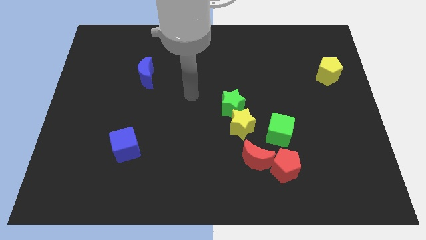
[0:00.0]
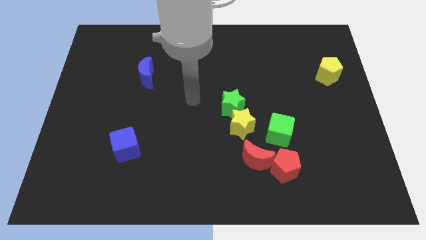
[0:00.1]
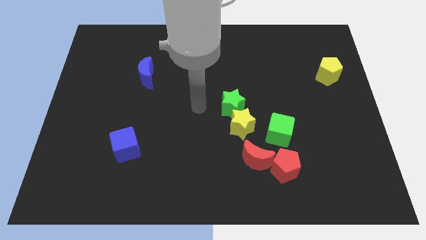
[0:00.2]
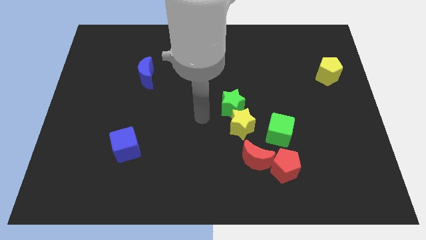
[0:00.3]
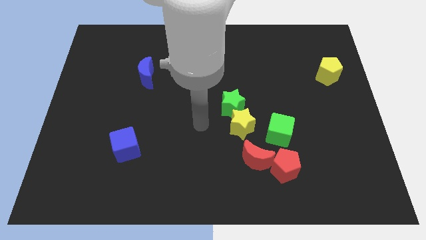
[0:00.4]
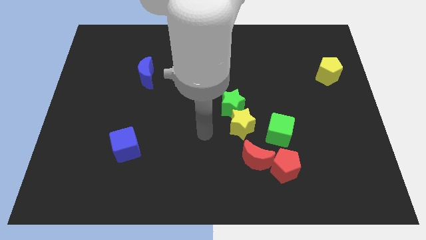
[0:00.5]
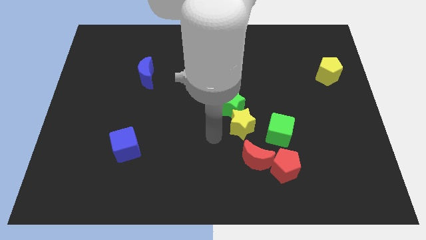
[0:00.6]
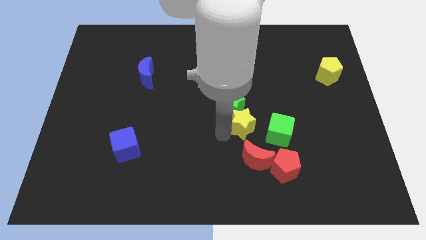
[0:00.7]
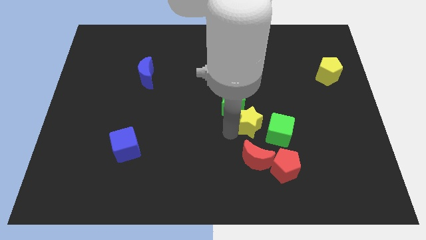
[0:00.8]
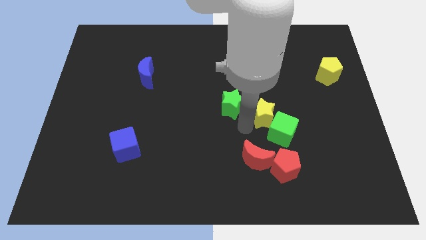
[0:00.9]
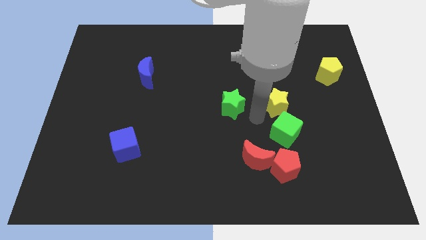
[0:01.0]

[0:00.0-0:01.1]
pull the green star apart from the yellow star

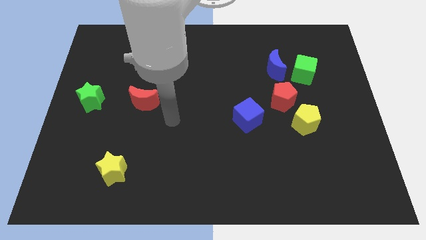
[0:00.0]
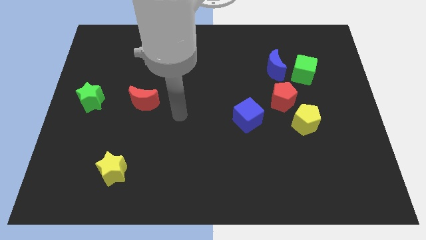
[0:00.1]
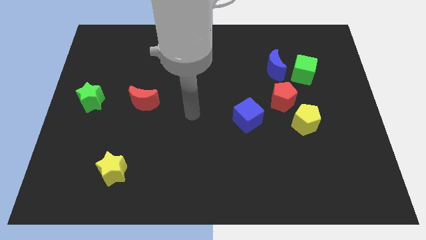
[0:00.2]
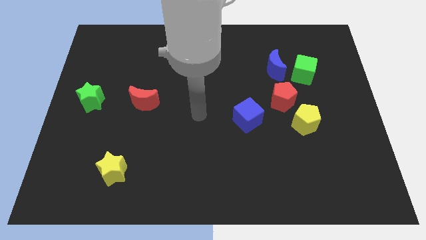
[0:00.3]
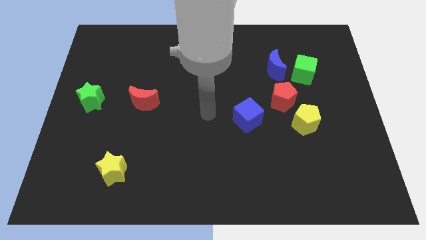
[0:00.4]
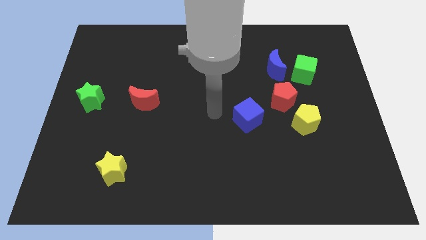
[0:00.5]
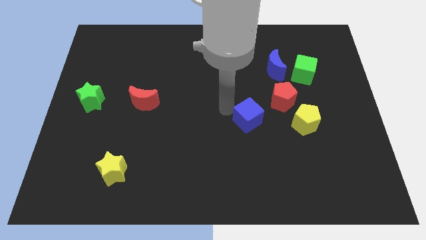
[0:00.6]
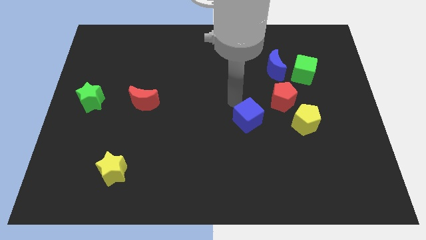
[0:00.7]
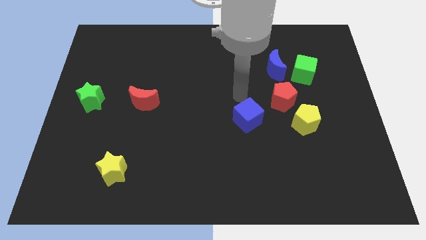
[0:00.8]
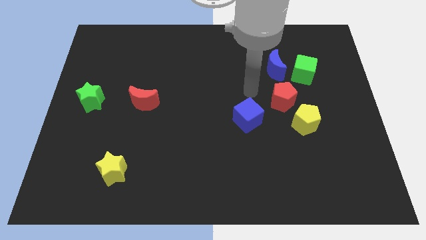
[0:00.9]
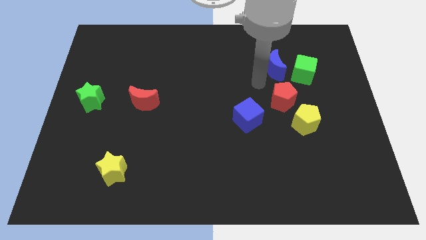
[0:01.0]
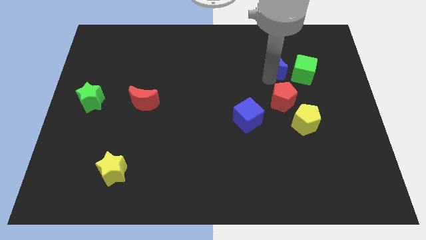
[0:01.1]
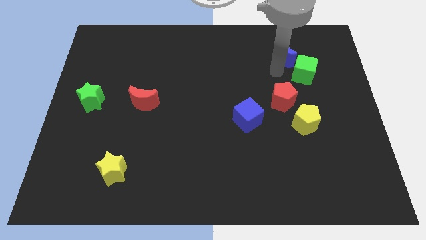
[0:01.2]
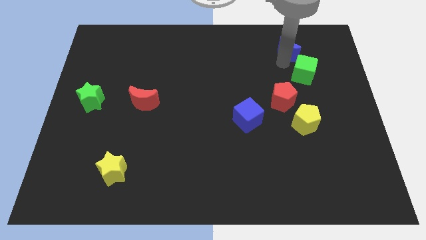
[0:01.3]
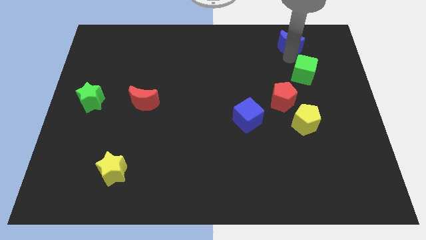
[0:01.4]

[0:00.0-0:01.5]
pull the green cube apart from the blue moon

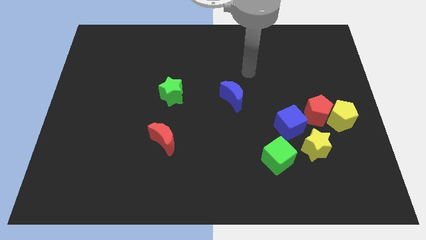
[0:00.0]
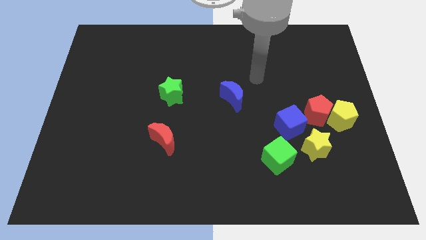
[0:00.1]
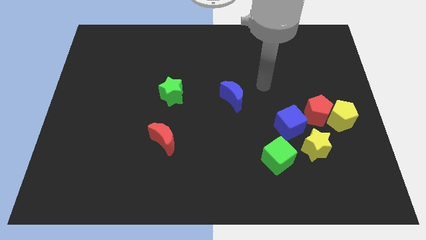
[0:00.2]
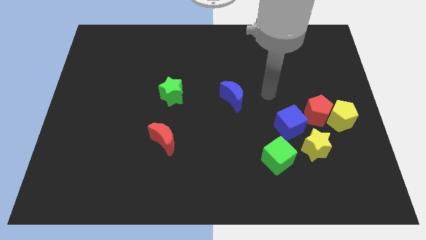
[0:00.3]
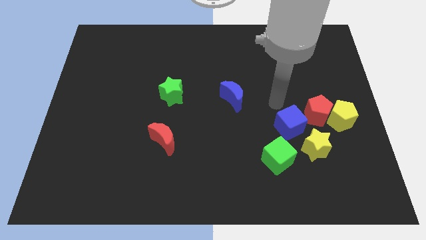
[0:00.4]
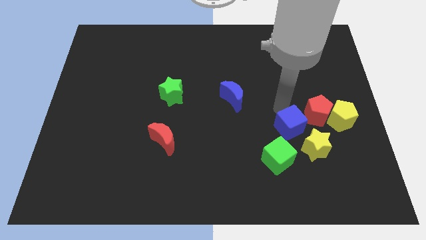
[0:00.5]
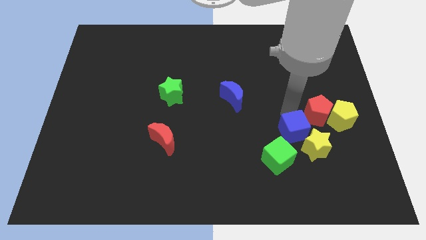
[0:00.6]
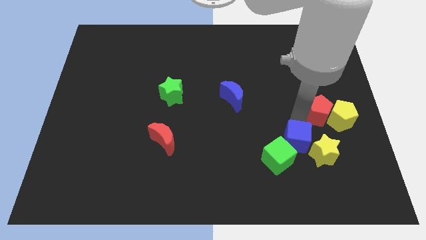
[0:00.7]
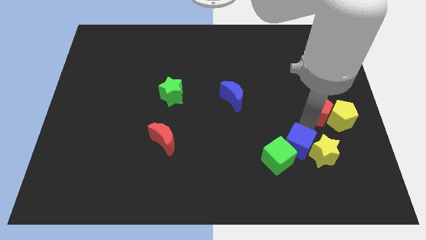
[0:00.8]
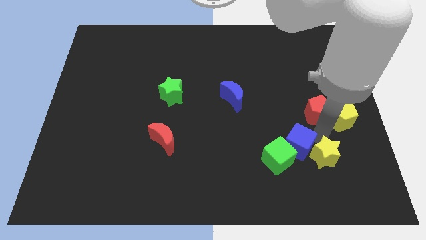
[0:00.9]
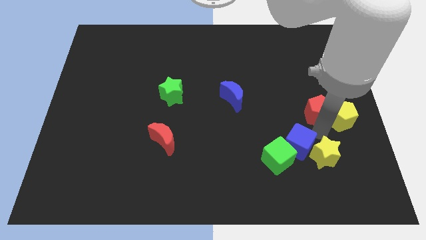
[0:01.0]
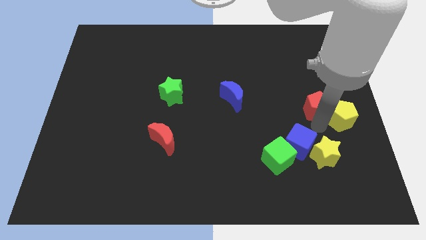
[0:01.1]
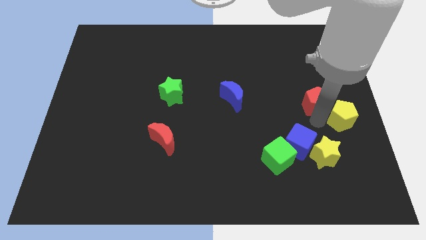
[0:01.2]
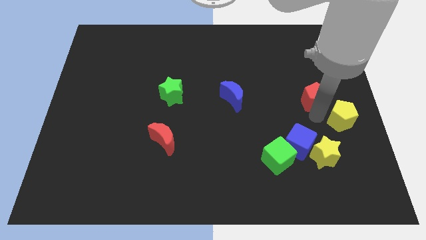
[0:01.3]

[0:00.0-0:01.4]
pull the red pentagon apart from the group

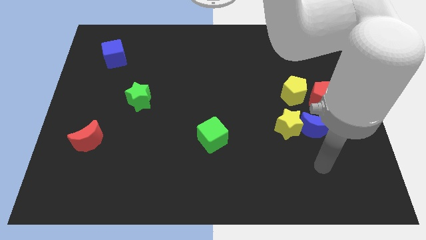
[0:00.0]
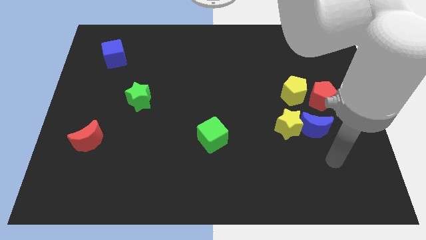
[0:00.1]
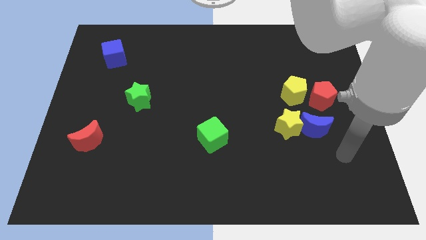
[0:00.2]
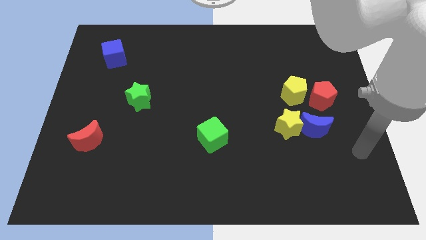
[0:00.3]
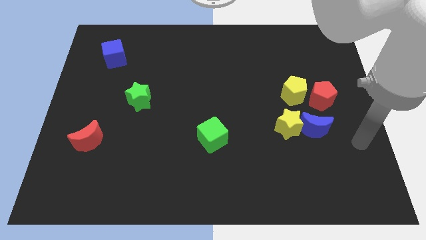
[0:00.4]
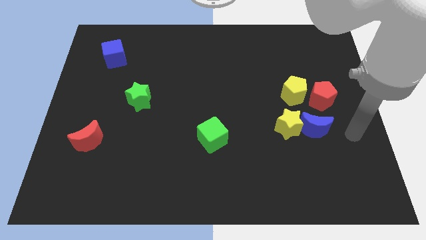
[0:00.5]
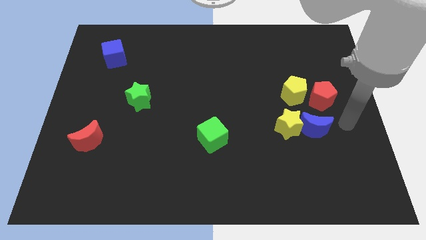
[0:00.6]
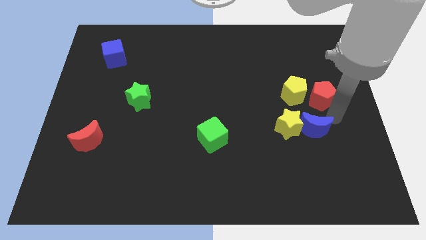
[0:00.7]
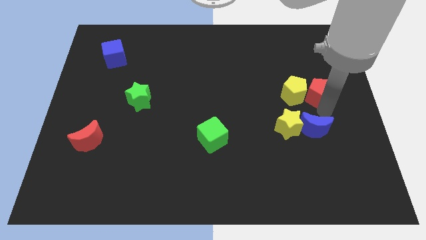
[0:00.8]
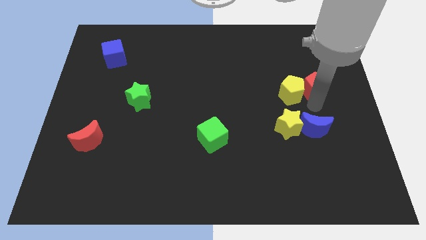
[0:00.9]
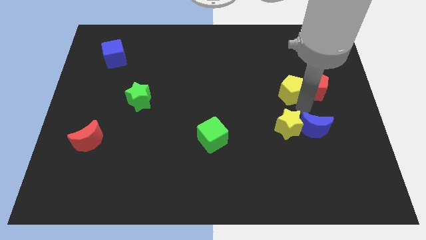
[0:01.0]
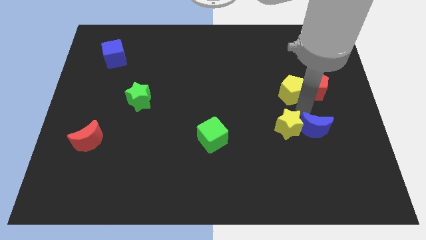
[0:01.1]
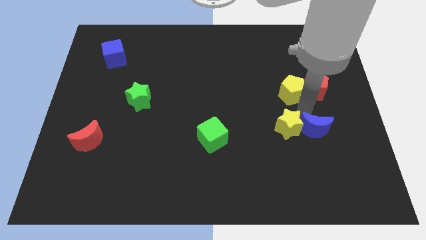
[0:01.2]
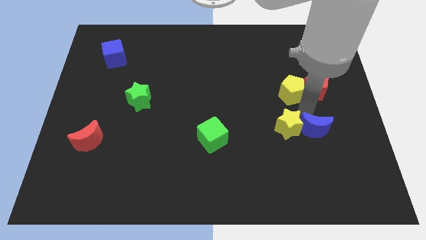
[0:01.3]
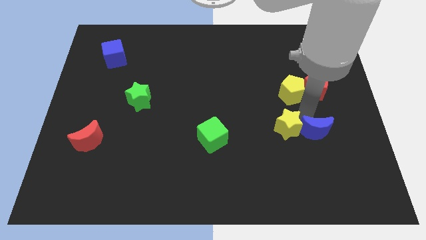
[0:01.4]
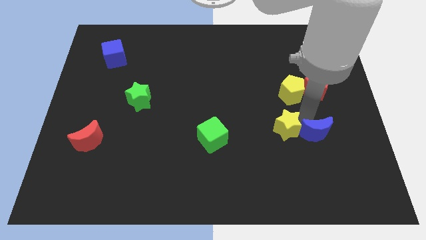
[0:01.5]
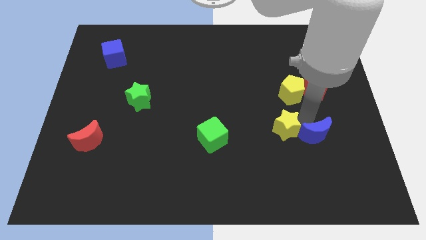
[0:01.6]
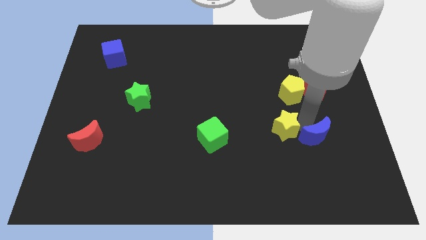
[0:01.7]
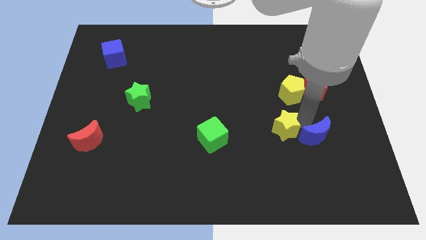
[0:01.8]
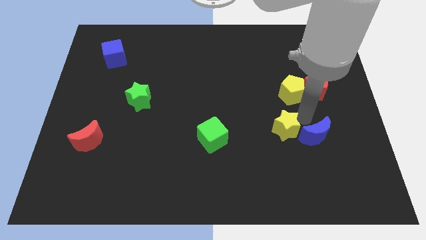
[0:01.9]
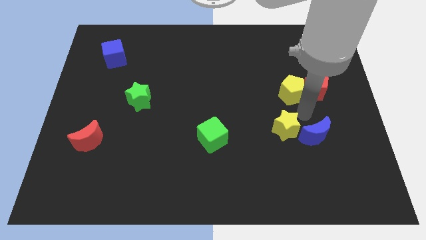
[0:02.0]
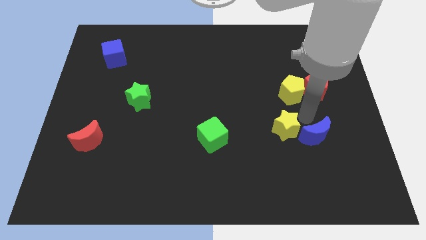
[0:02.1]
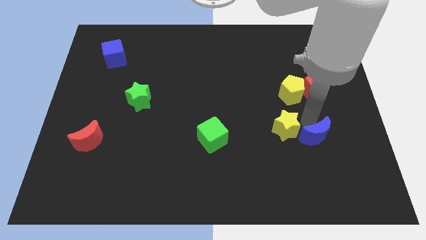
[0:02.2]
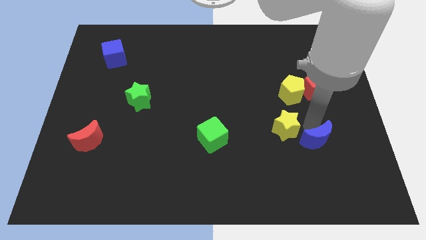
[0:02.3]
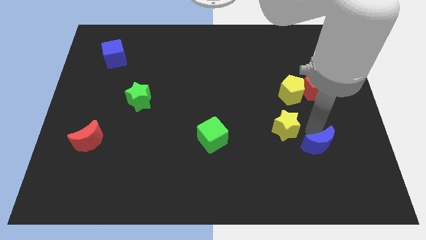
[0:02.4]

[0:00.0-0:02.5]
separate the blue moon from the yellow star and red pentagon

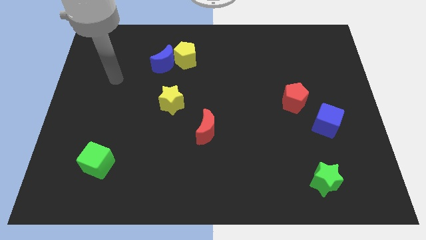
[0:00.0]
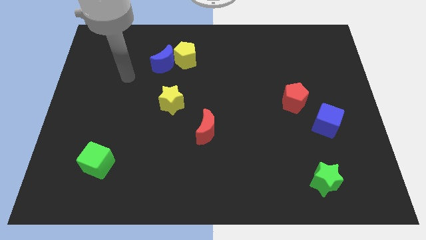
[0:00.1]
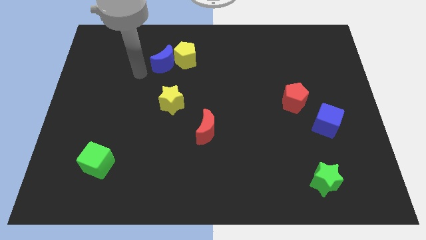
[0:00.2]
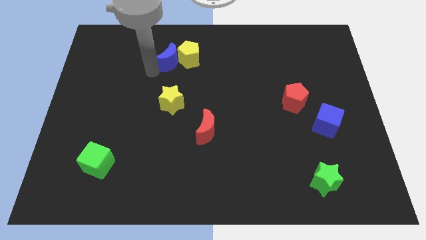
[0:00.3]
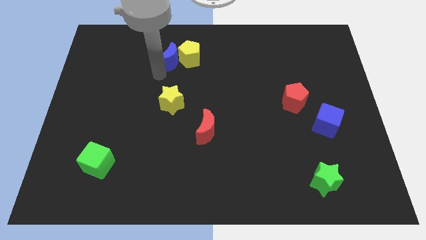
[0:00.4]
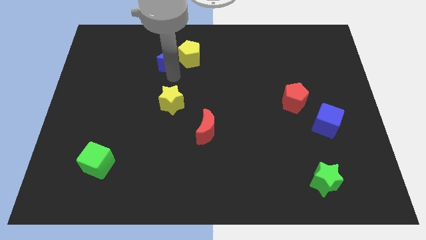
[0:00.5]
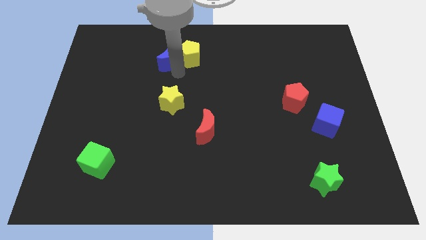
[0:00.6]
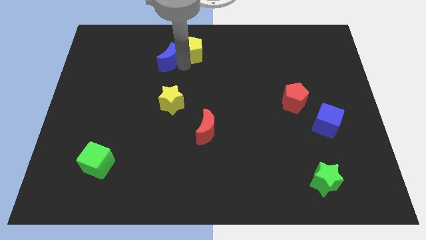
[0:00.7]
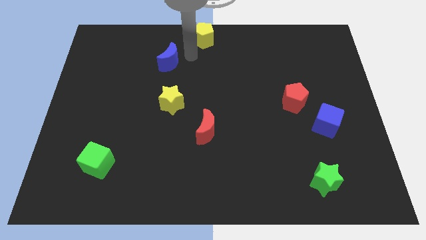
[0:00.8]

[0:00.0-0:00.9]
move the blue moon away from the yellow pentagon

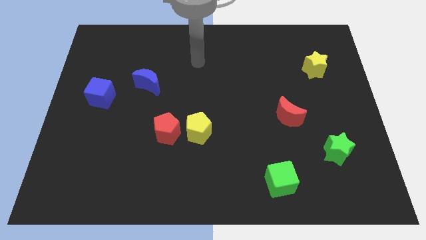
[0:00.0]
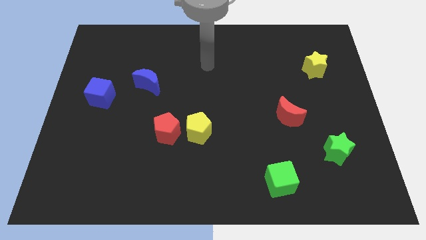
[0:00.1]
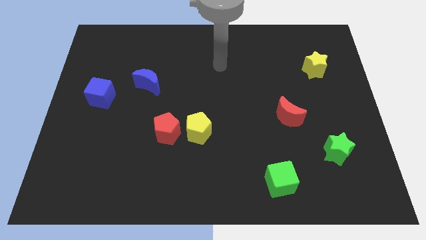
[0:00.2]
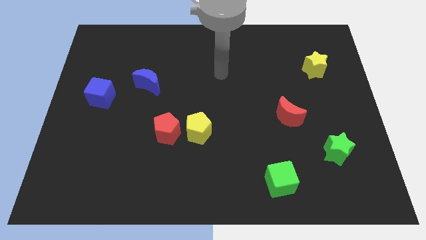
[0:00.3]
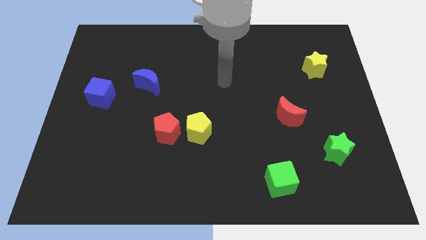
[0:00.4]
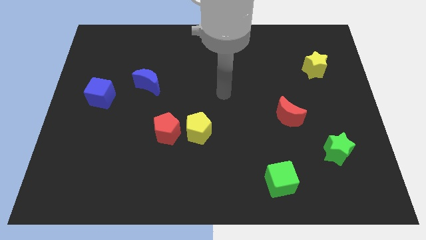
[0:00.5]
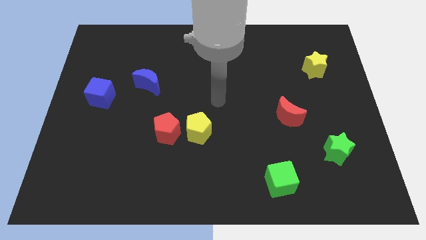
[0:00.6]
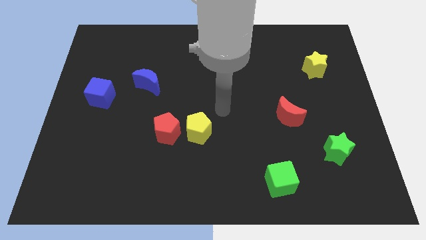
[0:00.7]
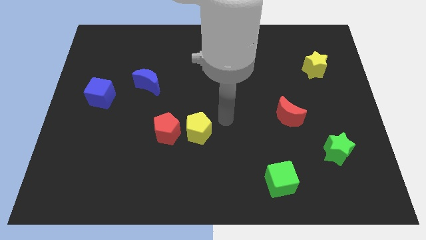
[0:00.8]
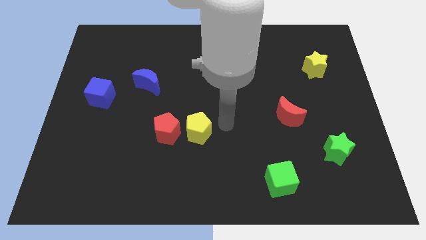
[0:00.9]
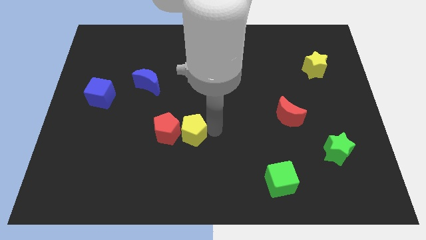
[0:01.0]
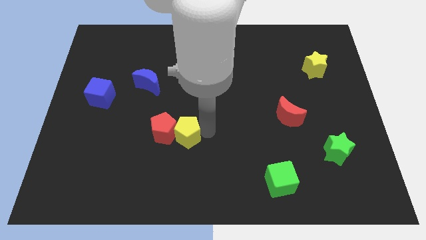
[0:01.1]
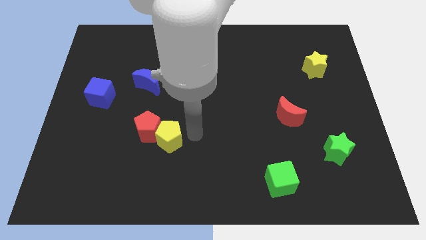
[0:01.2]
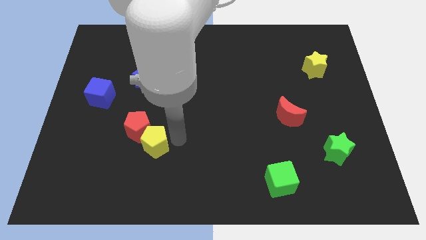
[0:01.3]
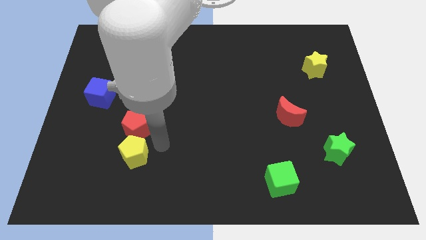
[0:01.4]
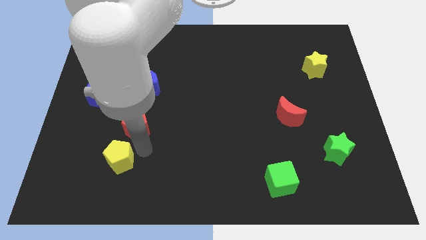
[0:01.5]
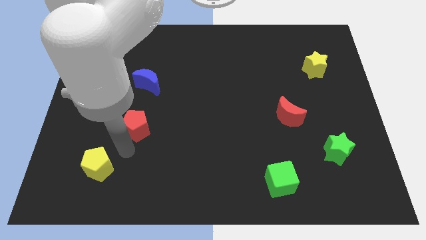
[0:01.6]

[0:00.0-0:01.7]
move the red pentagon away from the yellow pentagon

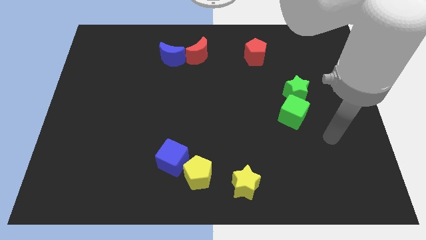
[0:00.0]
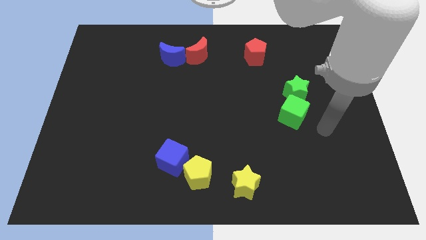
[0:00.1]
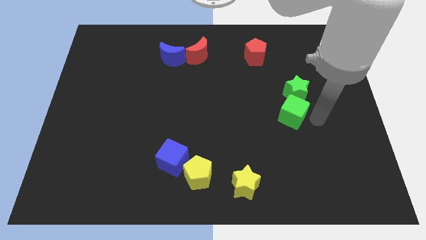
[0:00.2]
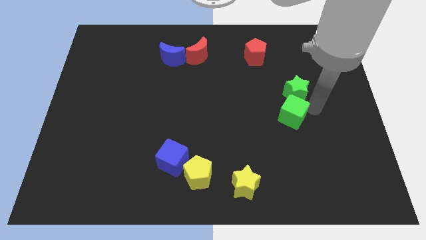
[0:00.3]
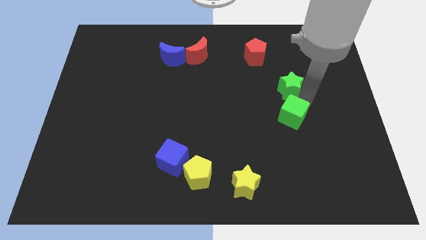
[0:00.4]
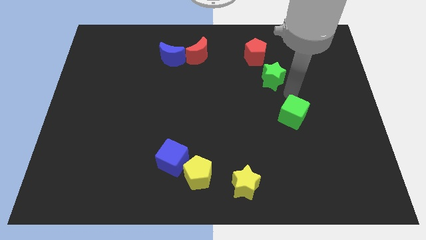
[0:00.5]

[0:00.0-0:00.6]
separate the green cube from the green star
